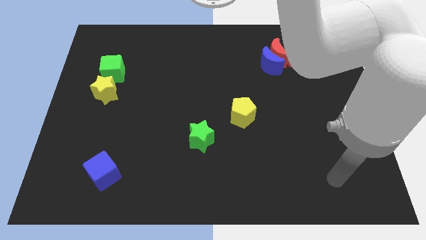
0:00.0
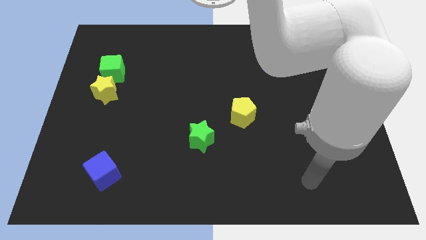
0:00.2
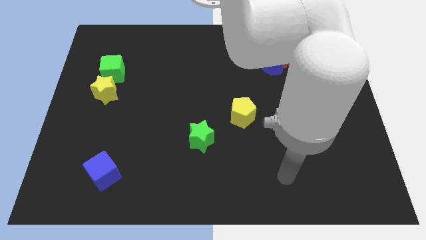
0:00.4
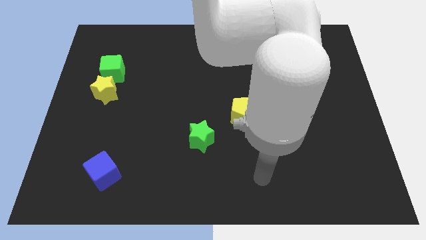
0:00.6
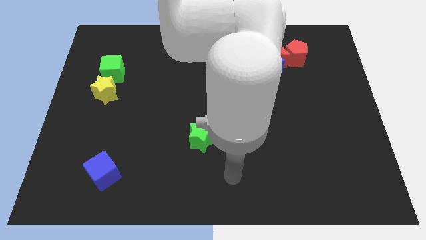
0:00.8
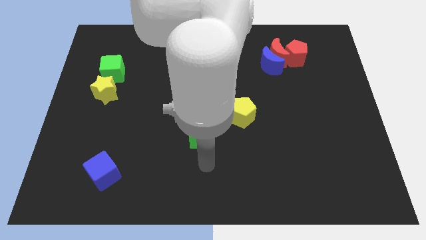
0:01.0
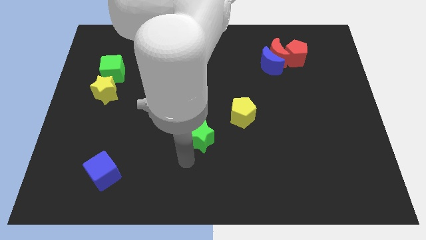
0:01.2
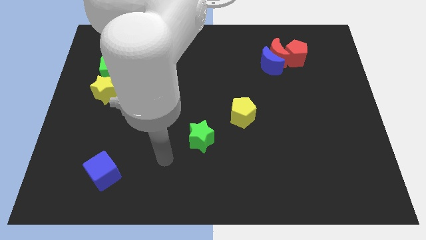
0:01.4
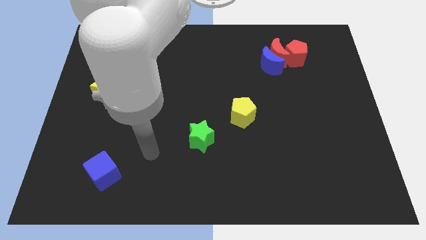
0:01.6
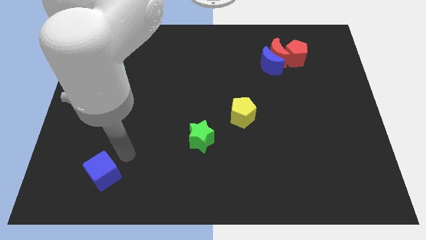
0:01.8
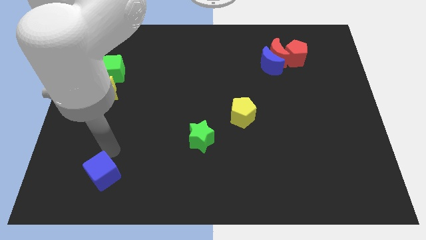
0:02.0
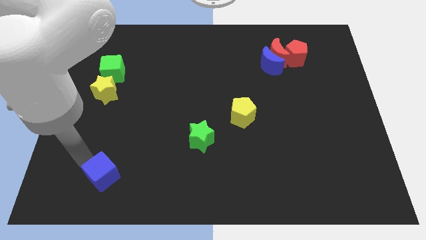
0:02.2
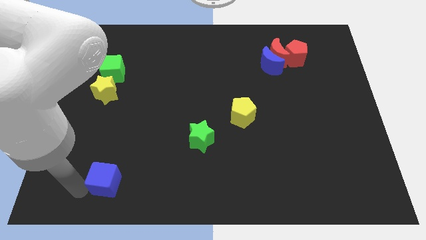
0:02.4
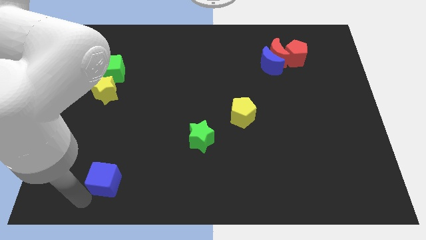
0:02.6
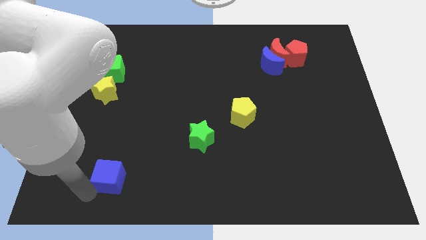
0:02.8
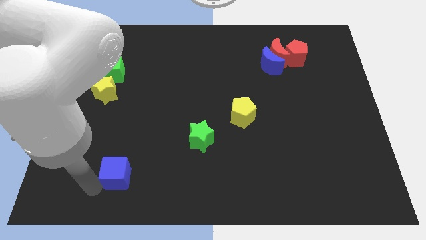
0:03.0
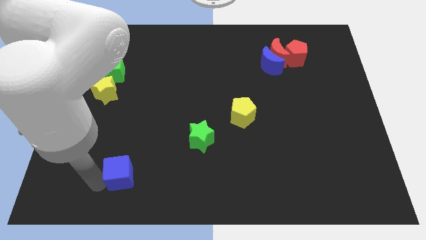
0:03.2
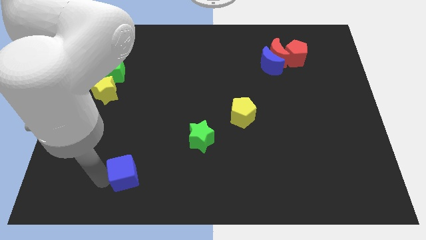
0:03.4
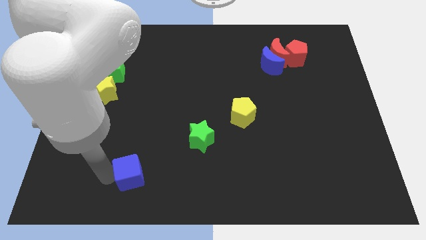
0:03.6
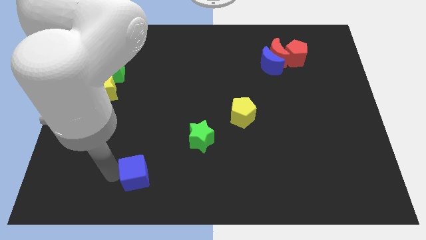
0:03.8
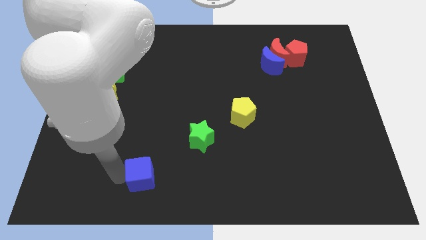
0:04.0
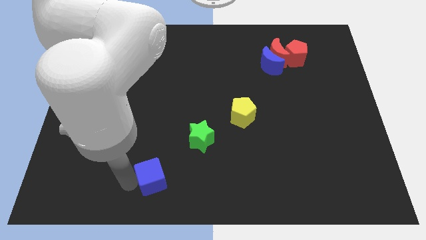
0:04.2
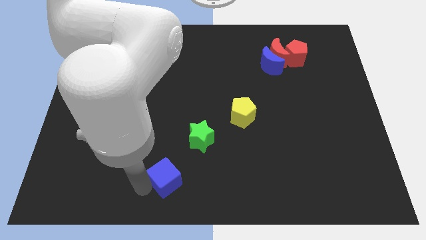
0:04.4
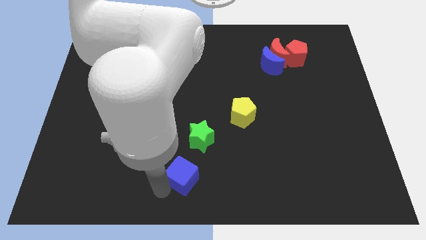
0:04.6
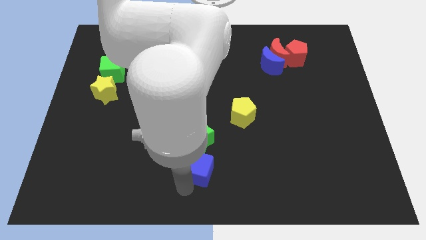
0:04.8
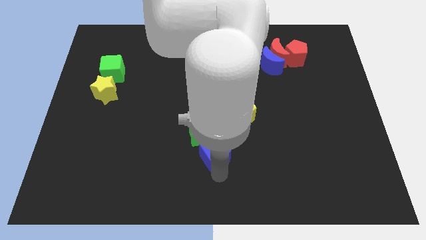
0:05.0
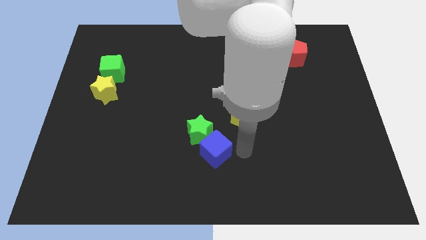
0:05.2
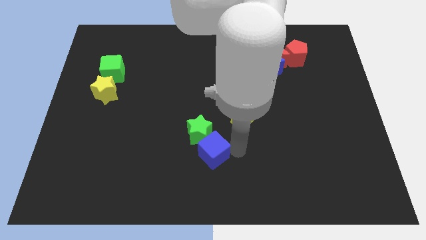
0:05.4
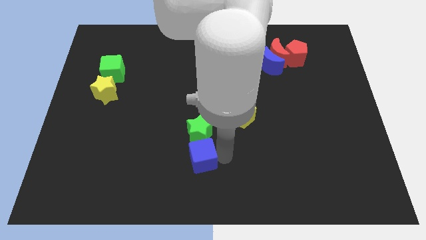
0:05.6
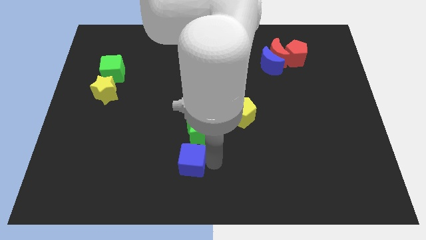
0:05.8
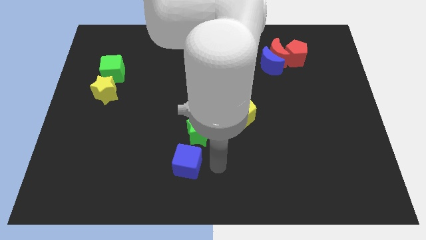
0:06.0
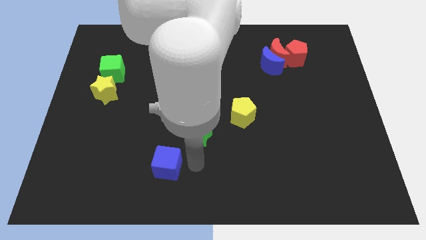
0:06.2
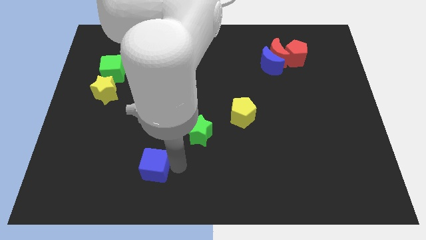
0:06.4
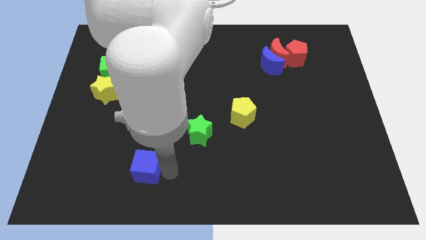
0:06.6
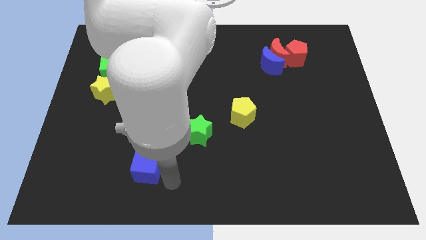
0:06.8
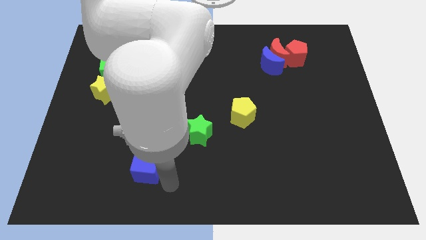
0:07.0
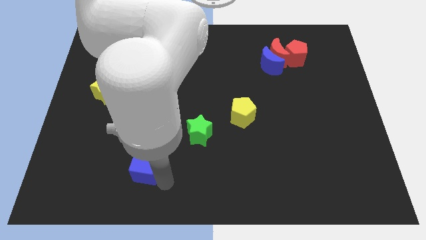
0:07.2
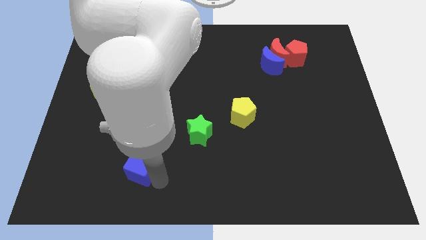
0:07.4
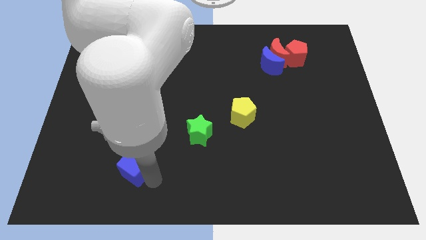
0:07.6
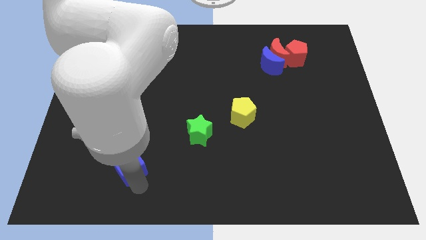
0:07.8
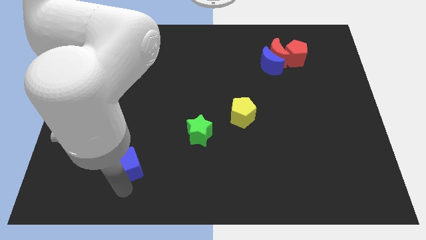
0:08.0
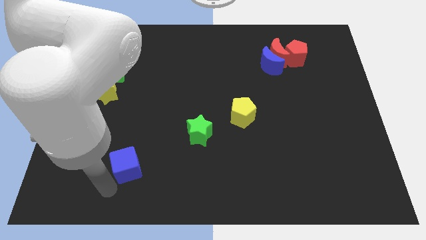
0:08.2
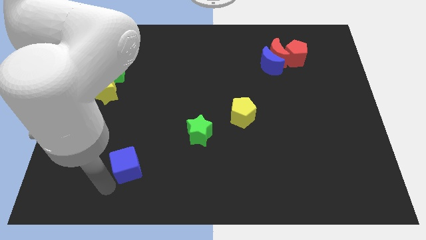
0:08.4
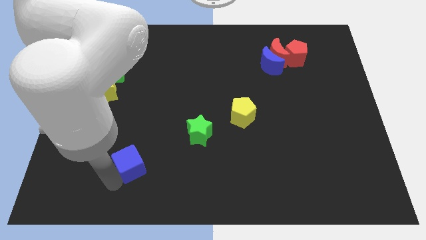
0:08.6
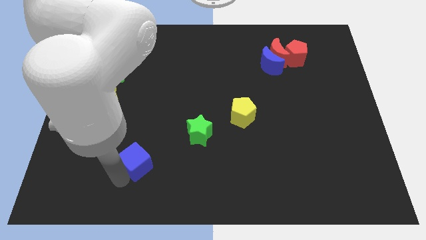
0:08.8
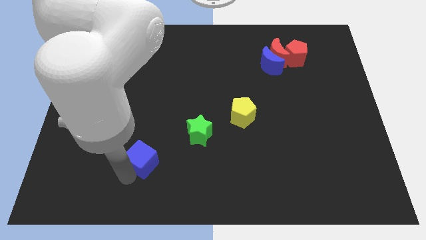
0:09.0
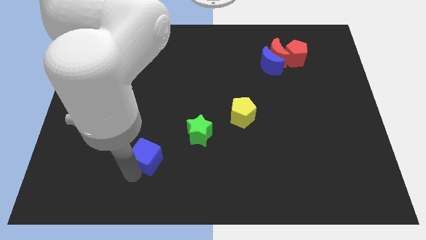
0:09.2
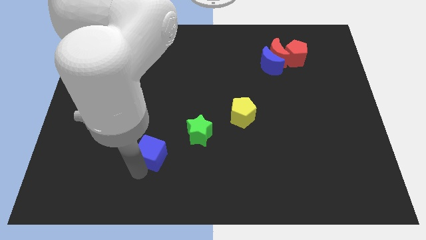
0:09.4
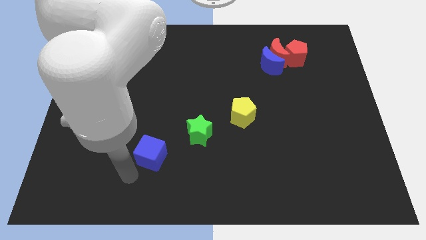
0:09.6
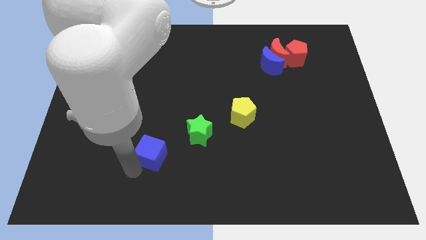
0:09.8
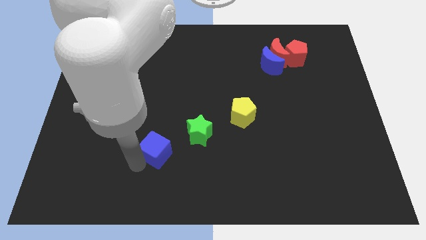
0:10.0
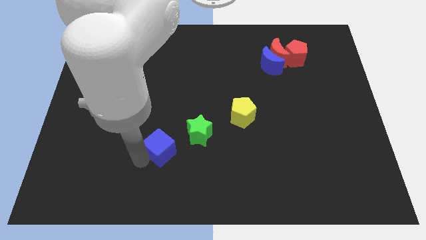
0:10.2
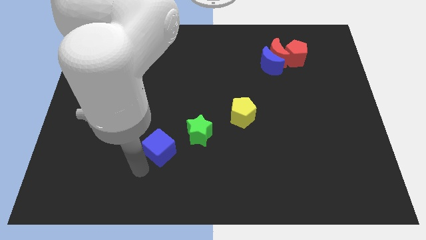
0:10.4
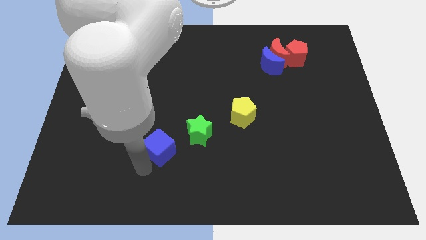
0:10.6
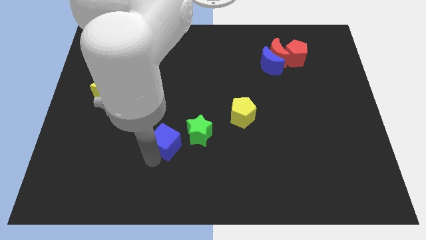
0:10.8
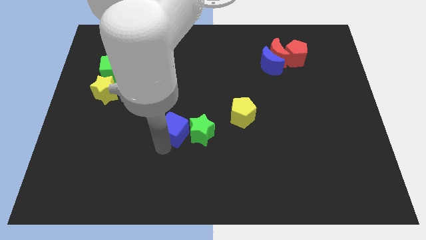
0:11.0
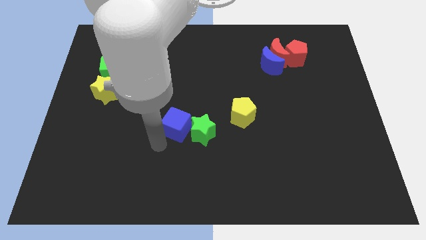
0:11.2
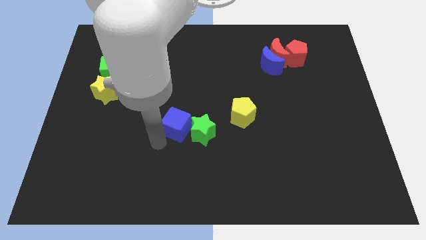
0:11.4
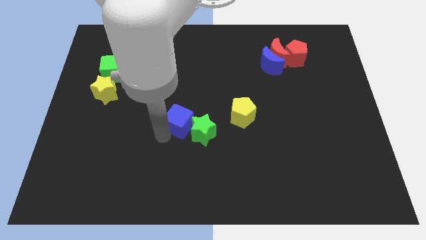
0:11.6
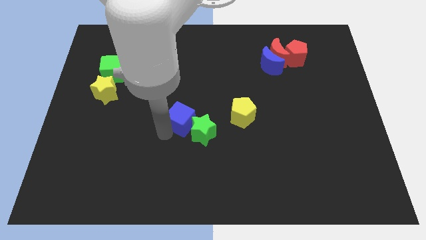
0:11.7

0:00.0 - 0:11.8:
move the blue cube up and right diagonally

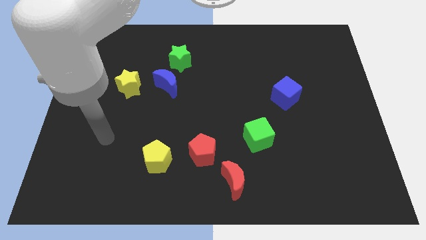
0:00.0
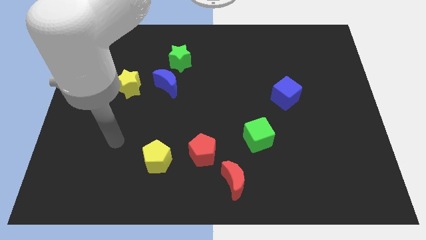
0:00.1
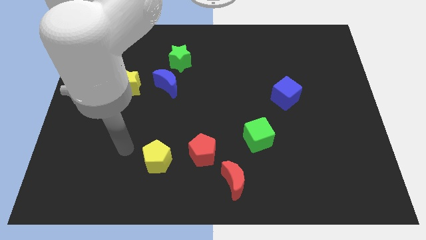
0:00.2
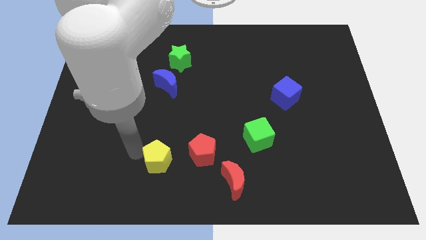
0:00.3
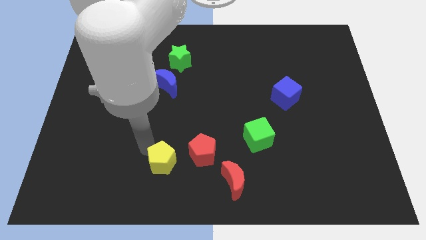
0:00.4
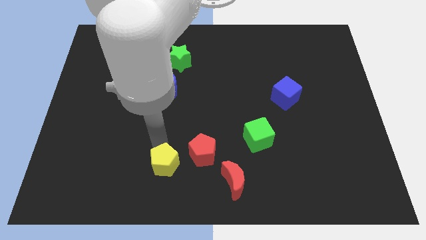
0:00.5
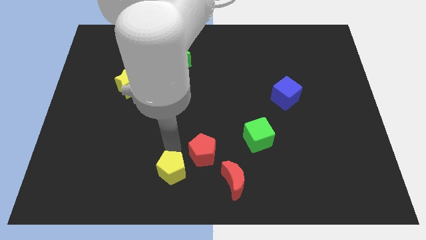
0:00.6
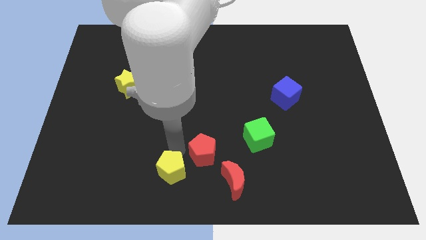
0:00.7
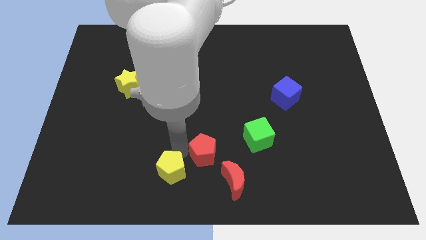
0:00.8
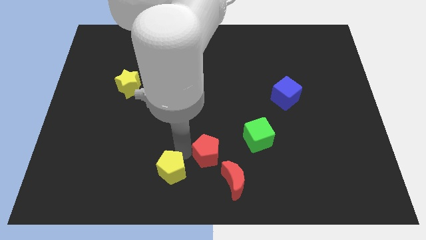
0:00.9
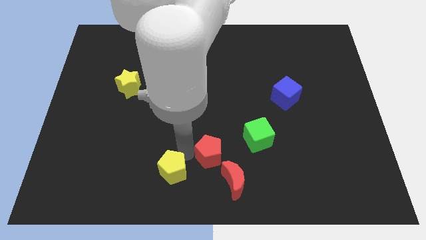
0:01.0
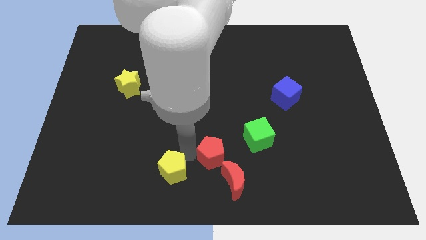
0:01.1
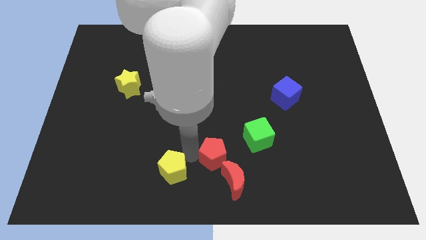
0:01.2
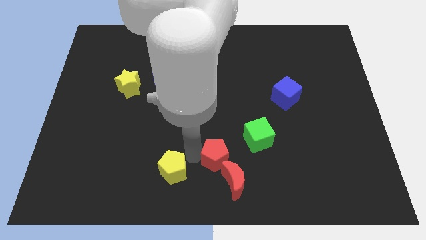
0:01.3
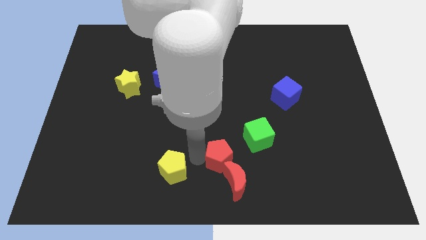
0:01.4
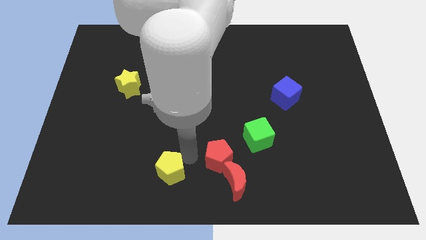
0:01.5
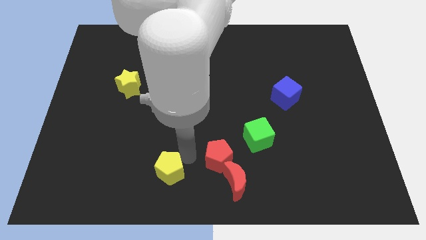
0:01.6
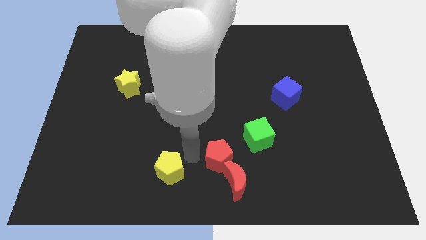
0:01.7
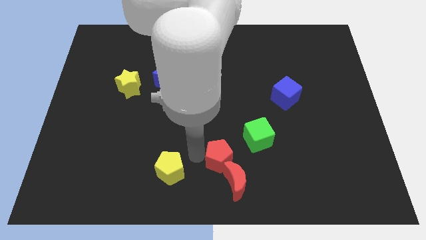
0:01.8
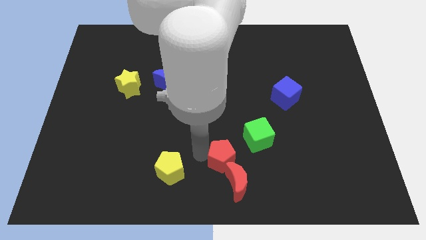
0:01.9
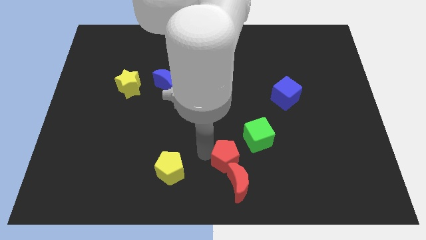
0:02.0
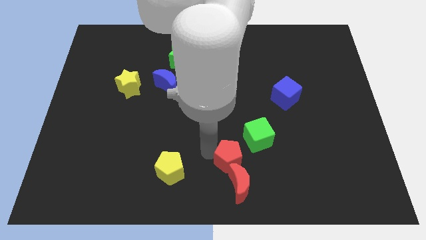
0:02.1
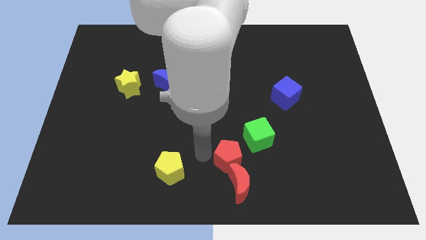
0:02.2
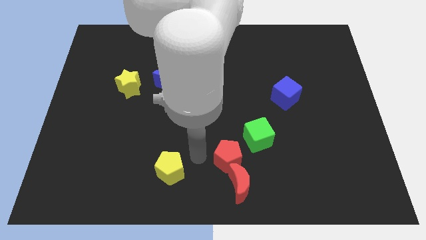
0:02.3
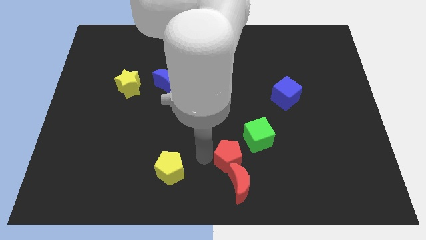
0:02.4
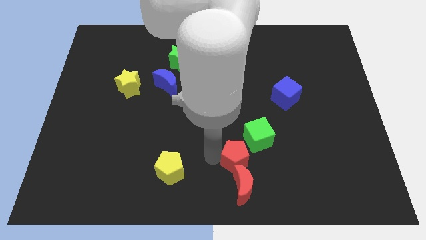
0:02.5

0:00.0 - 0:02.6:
slide the red pentagon to the right a little bit
